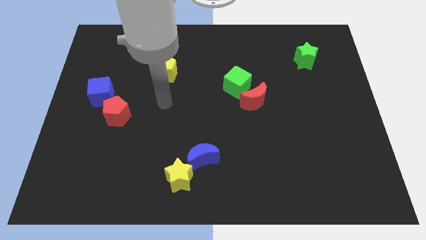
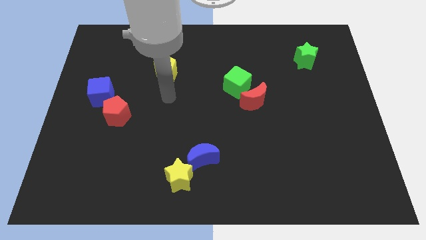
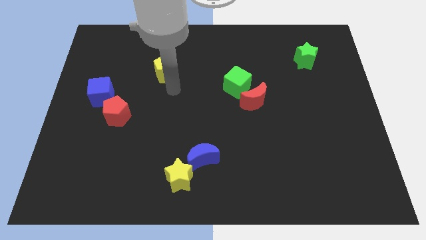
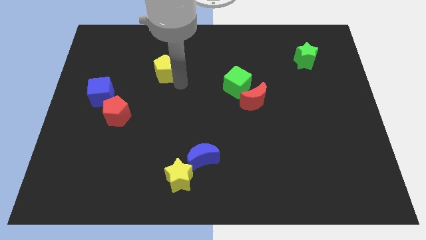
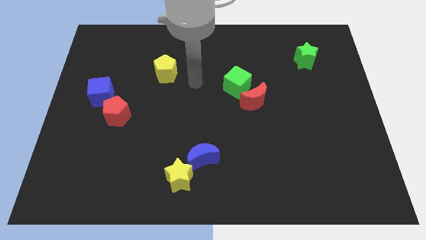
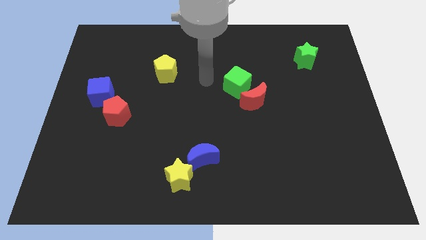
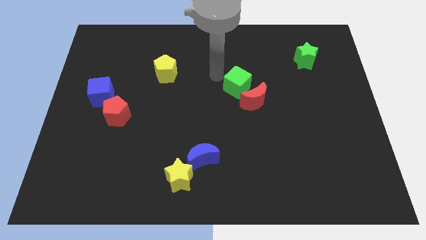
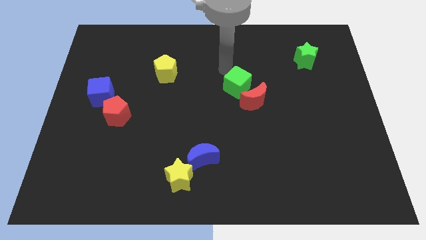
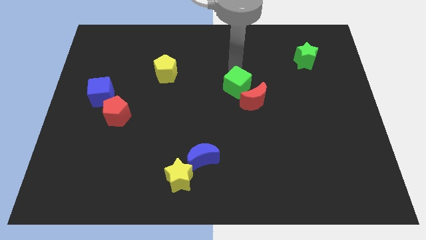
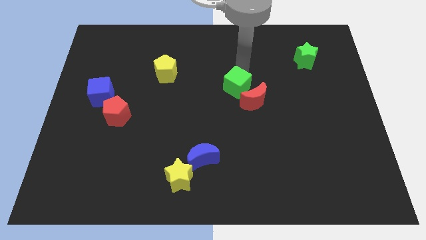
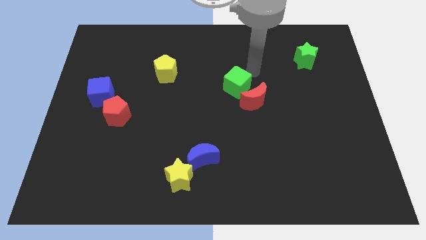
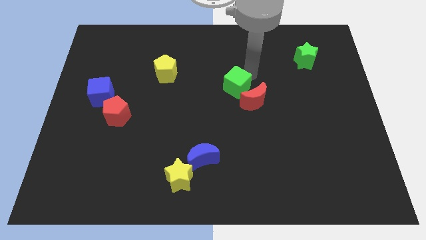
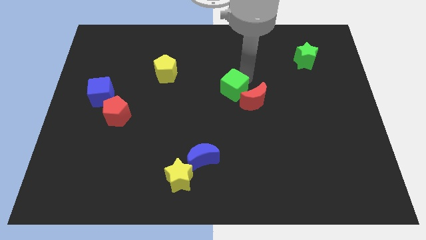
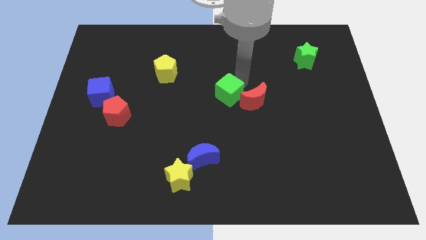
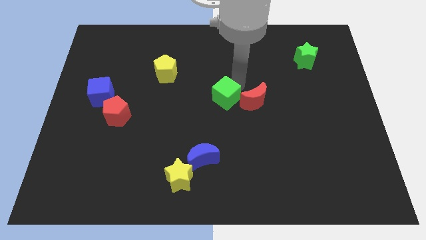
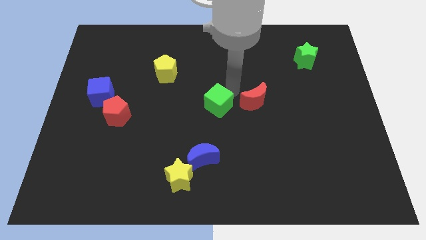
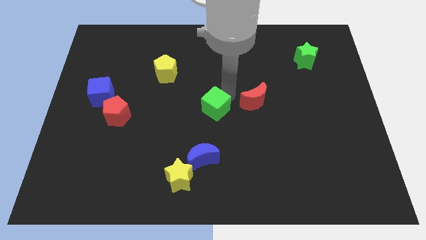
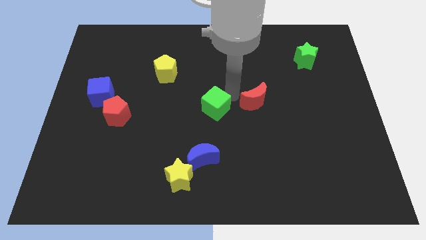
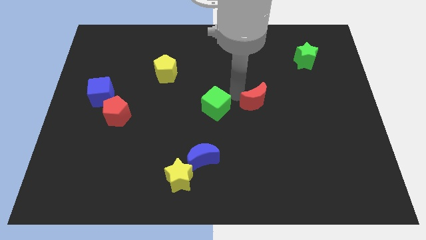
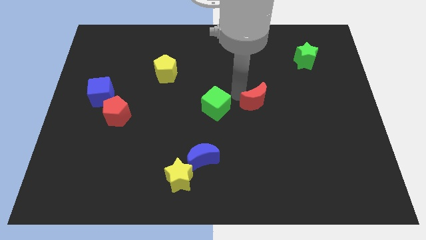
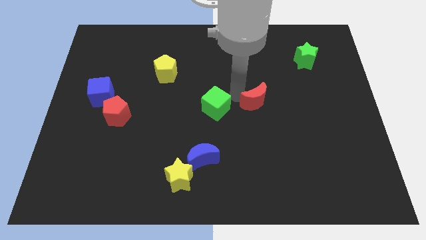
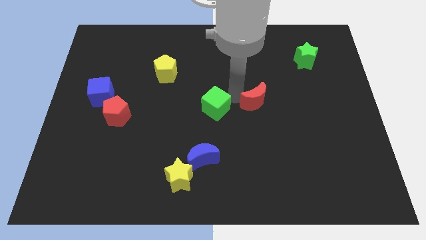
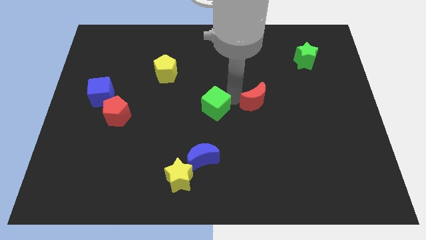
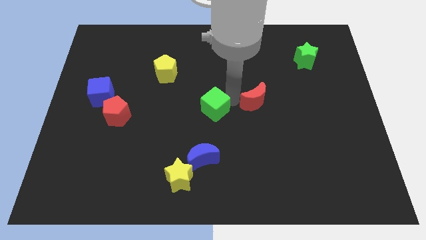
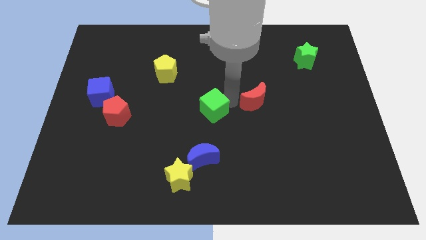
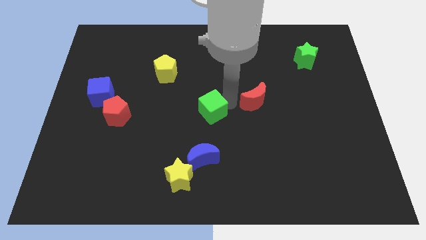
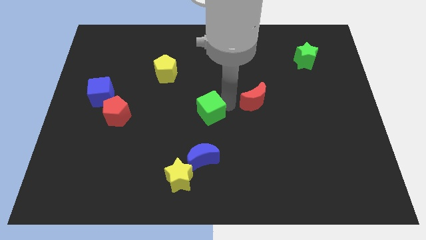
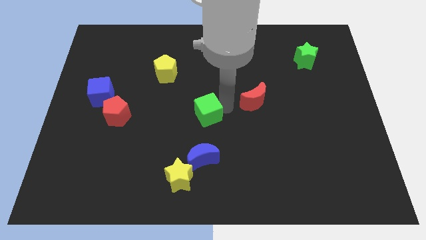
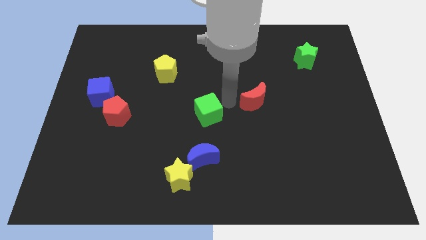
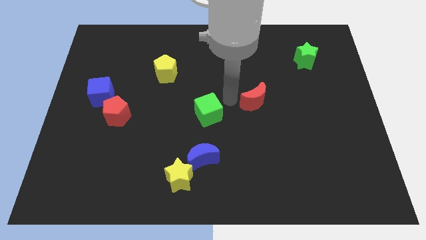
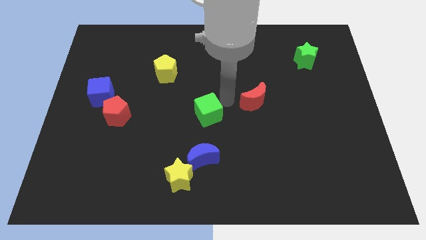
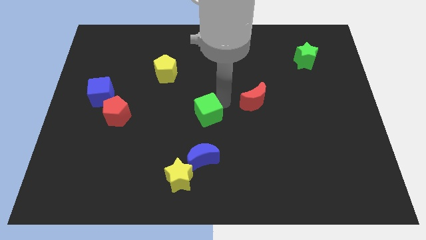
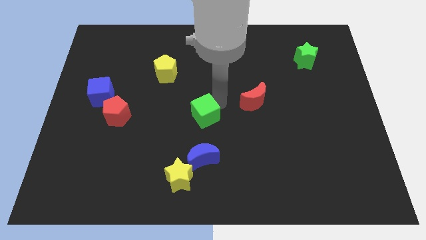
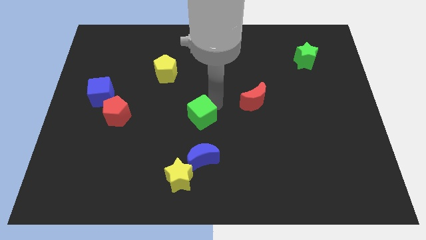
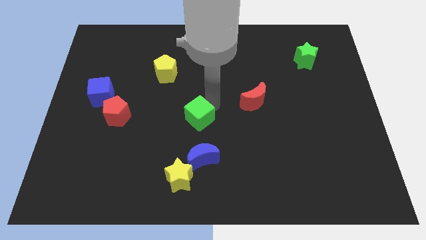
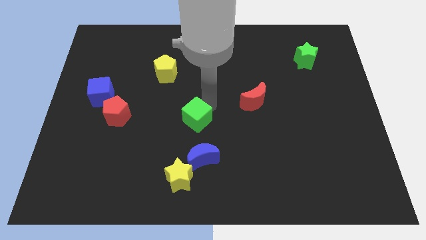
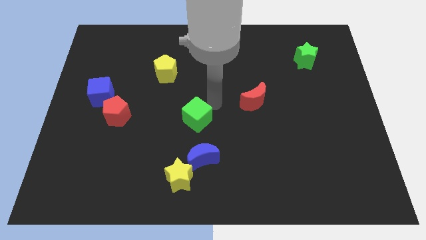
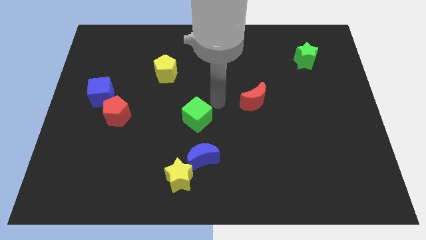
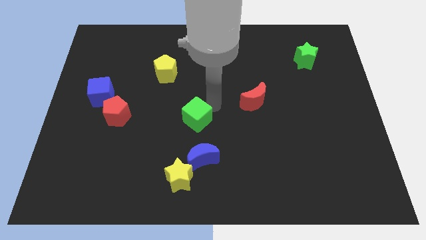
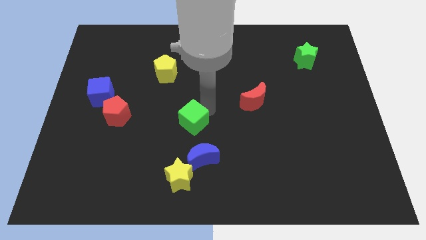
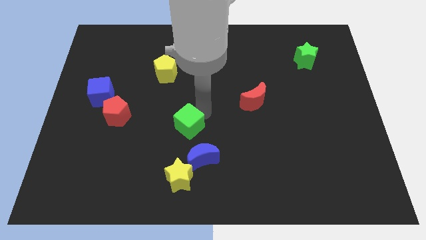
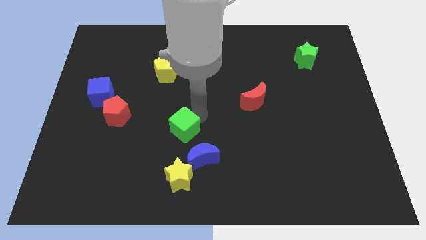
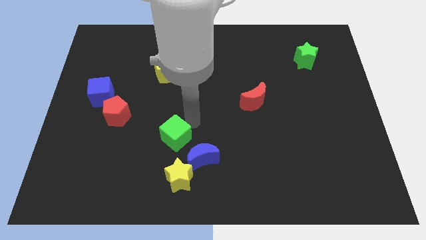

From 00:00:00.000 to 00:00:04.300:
push the green cube down and to the left

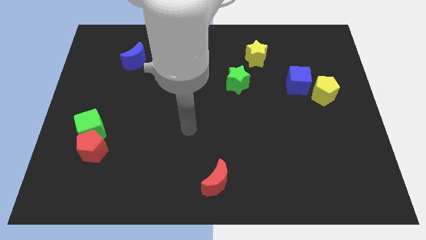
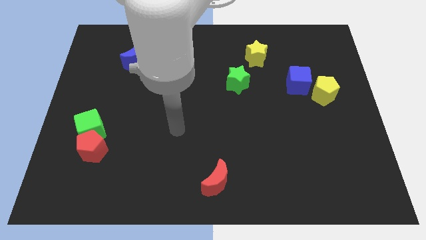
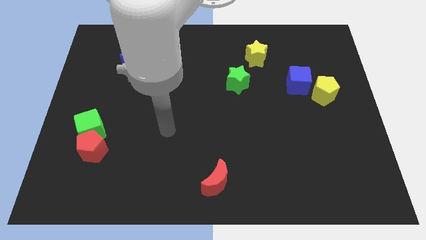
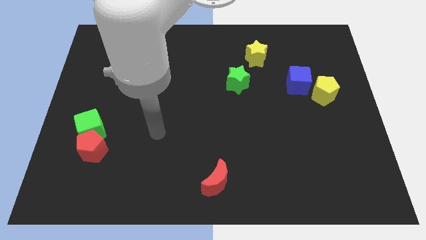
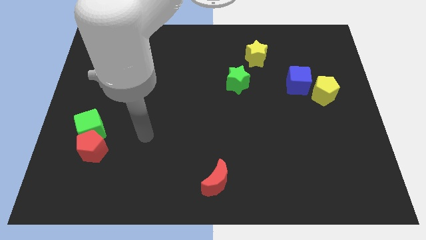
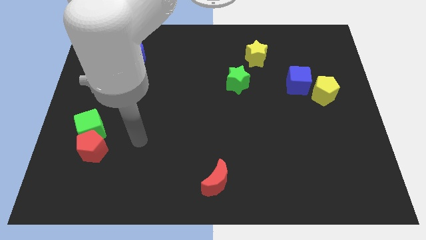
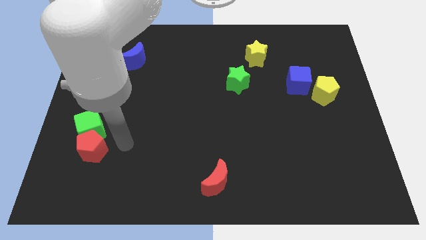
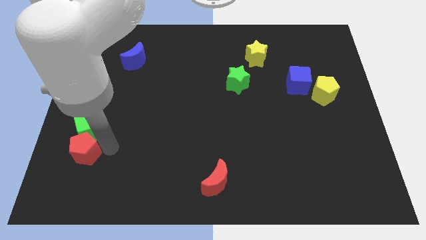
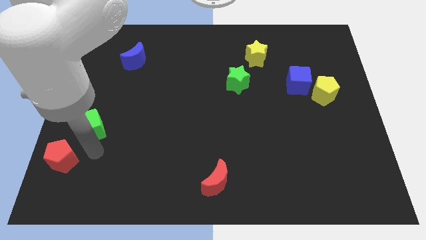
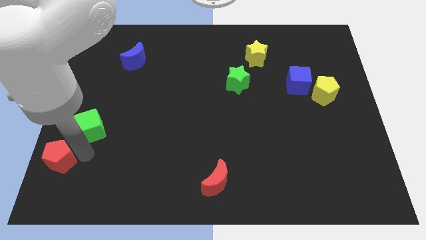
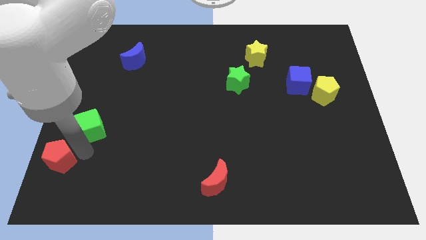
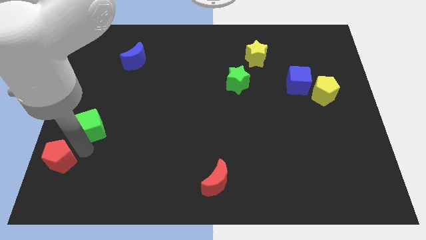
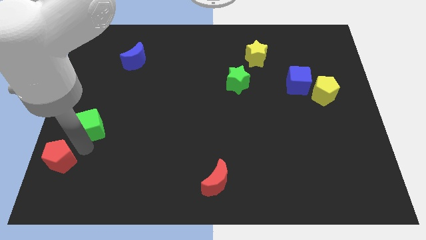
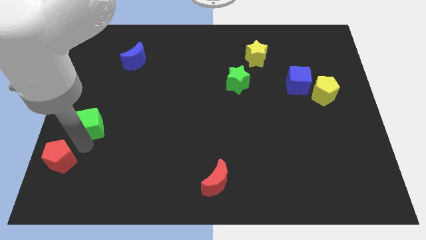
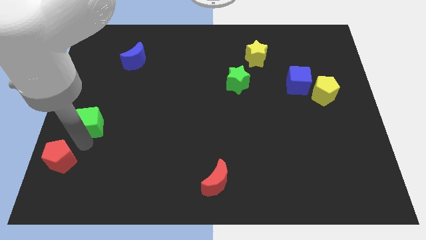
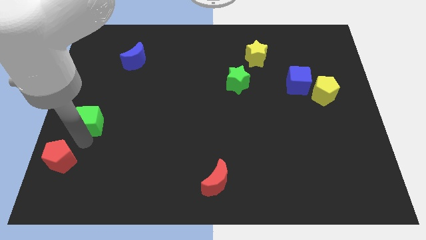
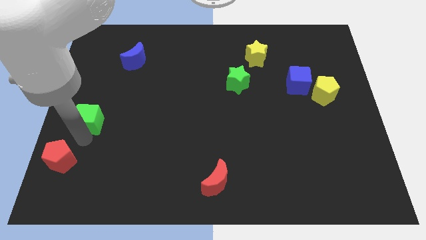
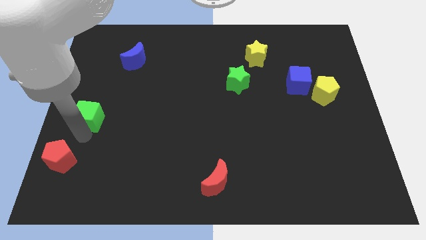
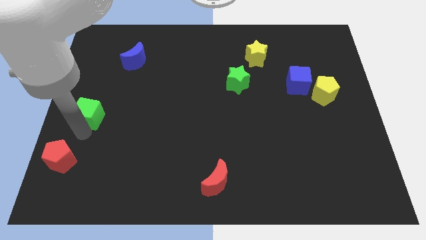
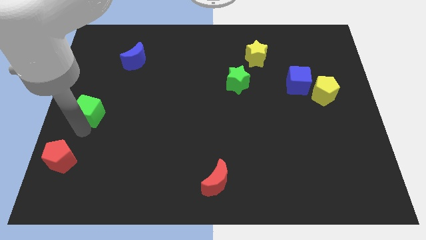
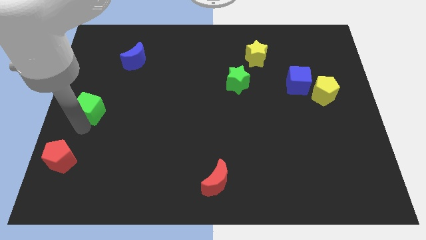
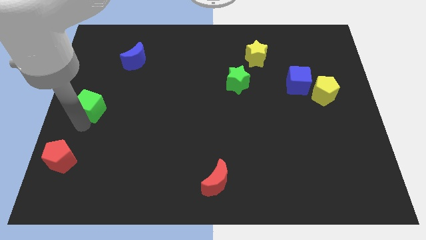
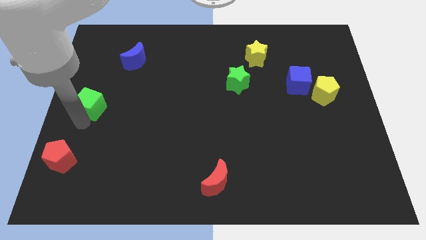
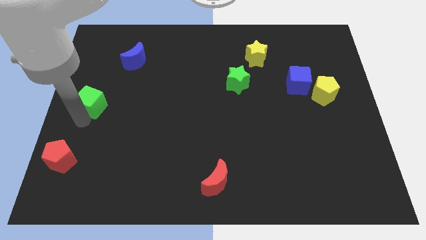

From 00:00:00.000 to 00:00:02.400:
slightly push the green cube upwards

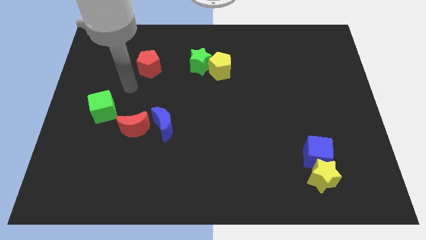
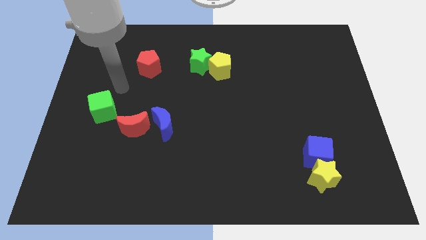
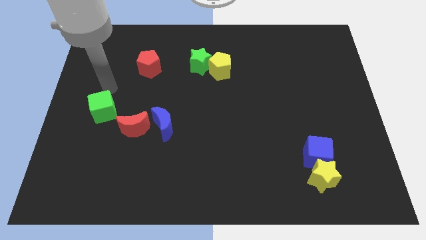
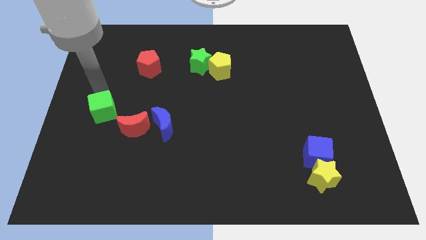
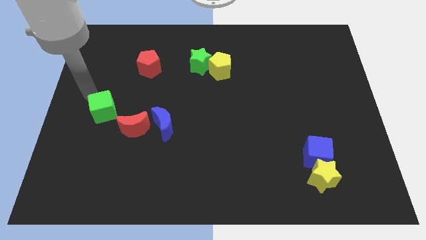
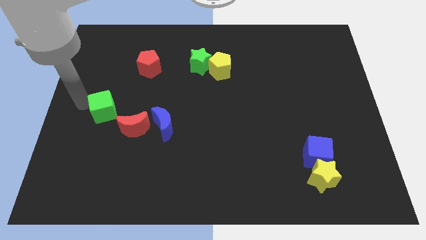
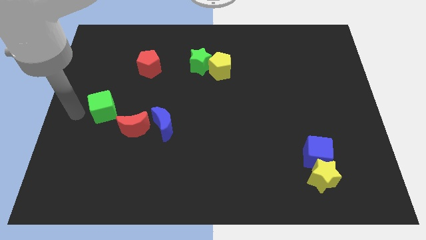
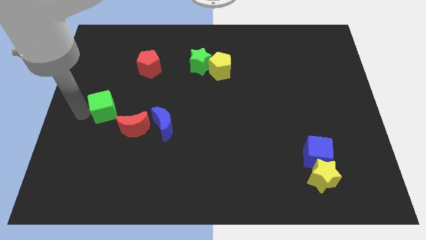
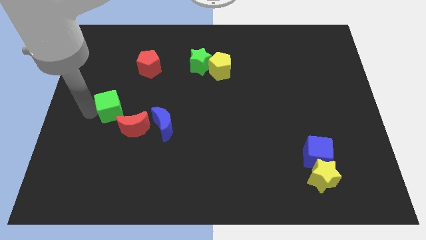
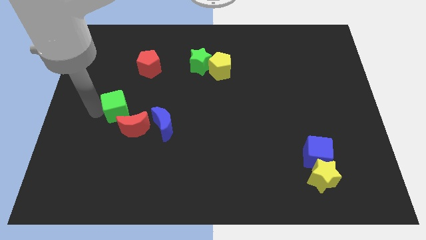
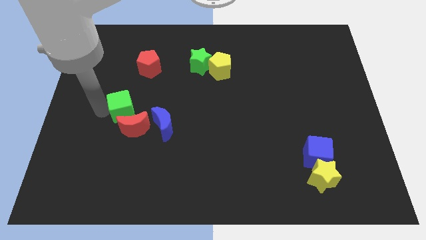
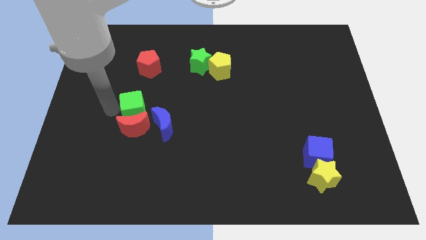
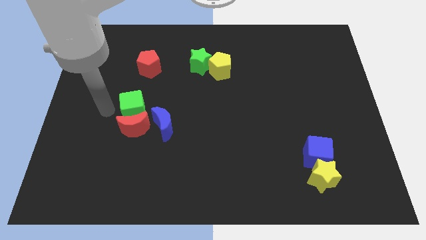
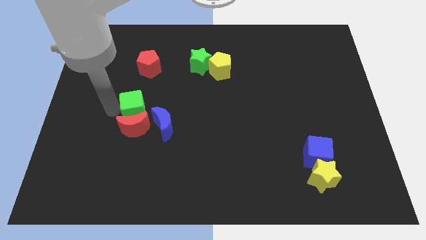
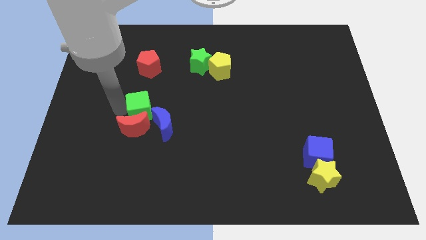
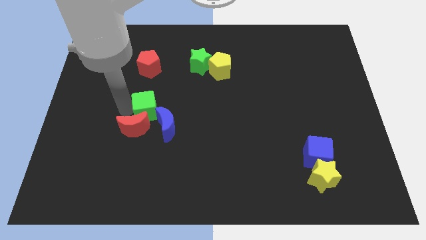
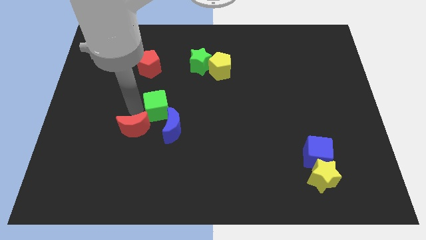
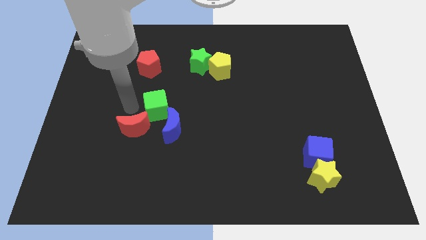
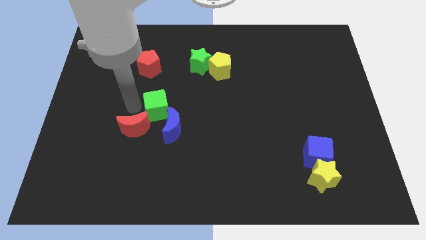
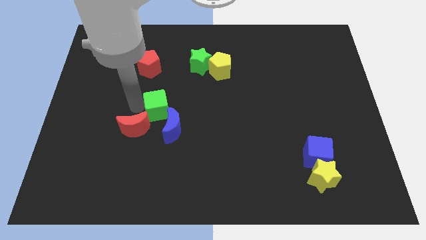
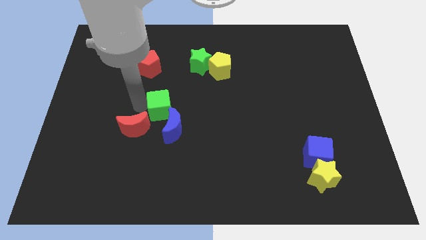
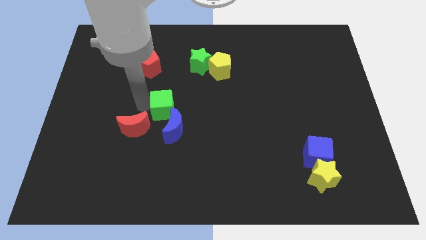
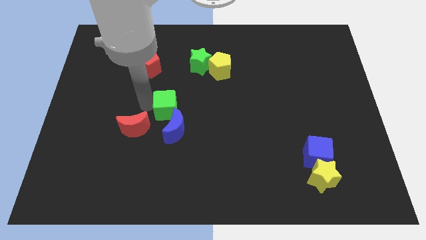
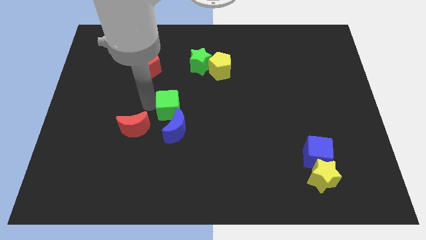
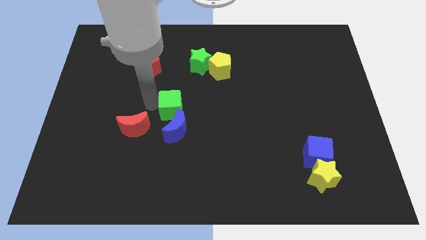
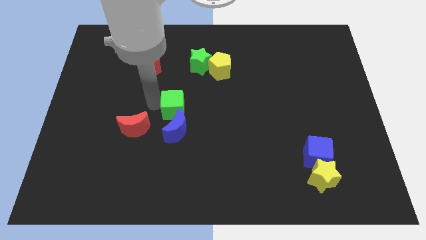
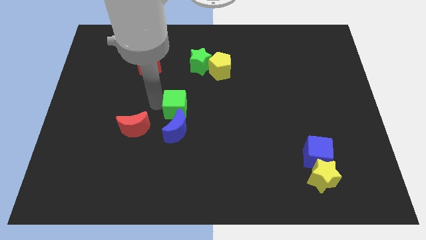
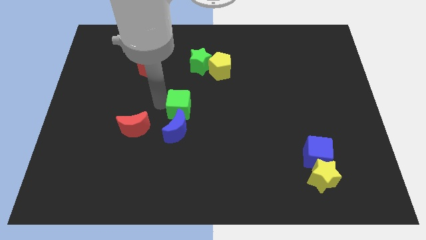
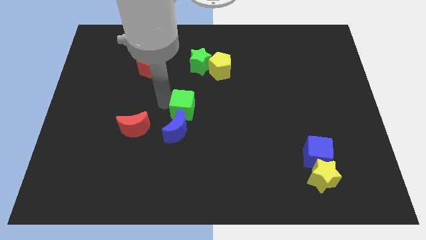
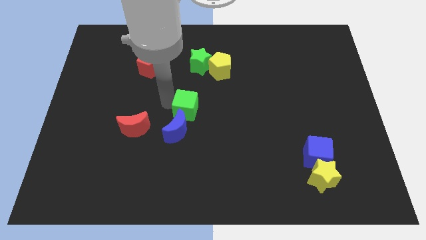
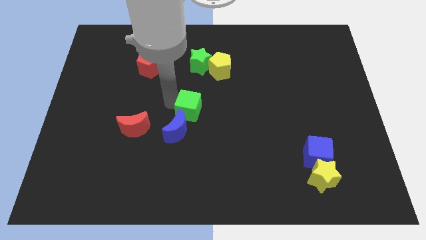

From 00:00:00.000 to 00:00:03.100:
slide the green cube right
